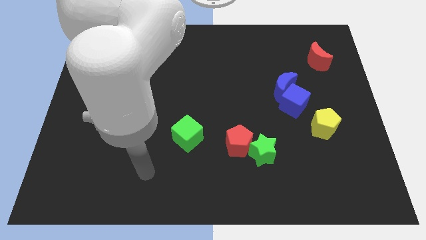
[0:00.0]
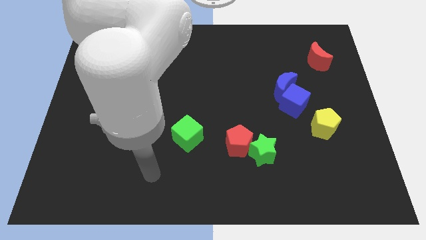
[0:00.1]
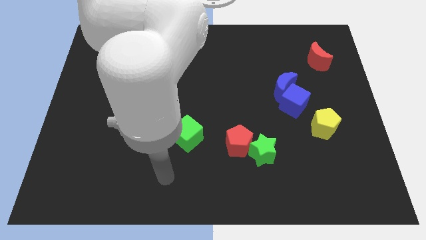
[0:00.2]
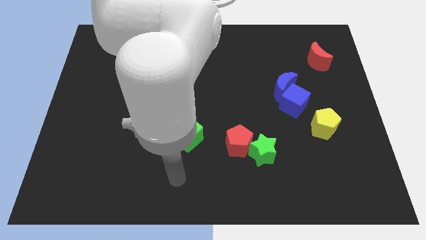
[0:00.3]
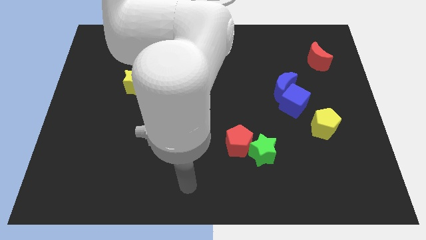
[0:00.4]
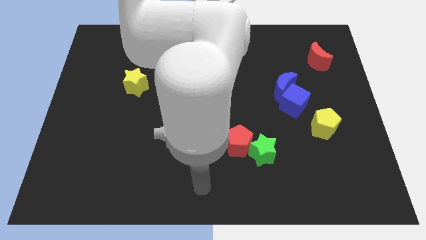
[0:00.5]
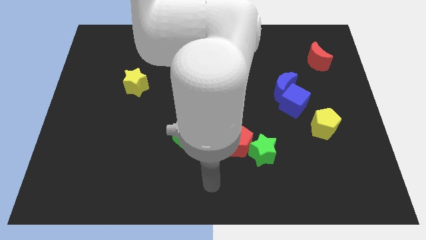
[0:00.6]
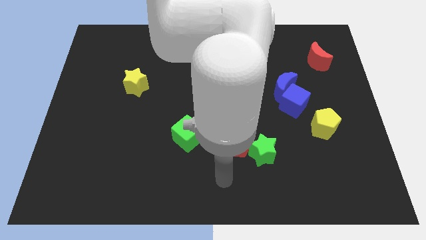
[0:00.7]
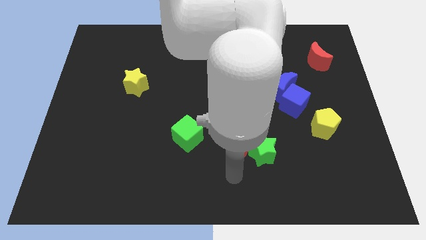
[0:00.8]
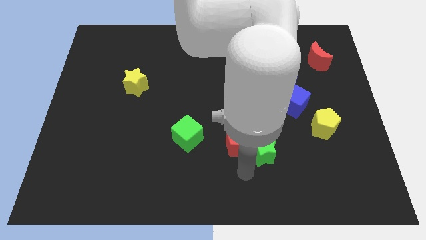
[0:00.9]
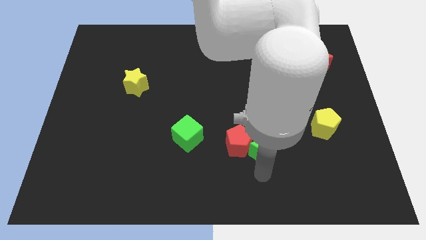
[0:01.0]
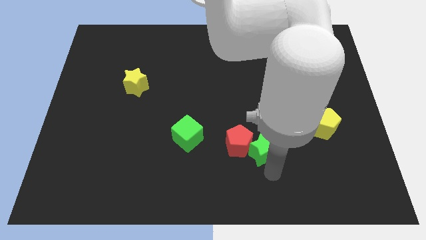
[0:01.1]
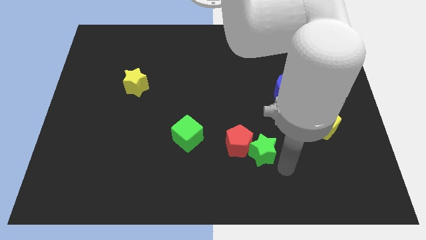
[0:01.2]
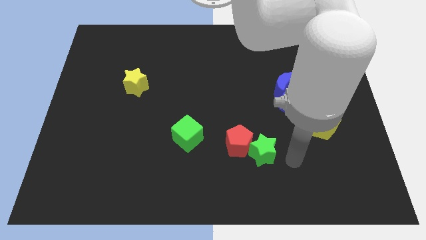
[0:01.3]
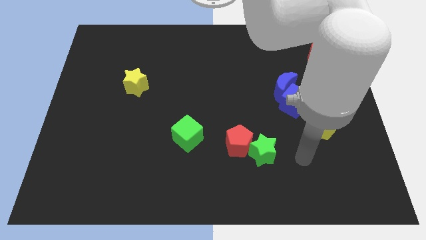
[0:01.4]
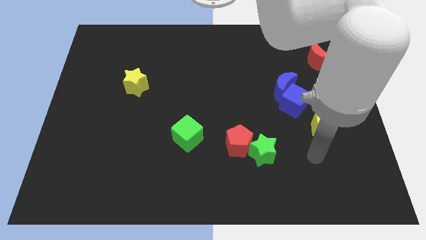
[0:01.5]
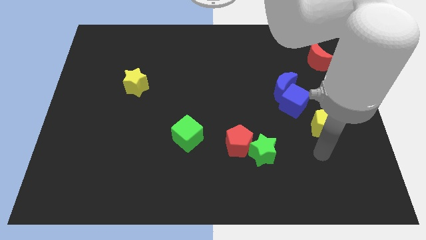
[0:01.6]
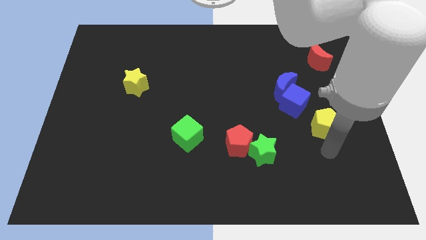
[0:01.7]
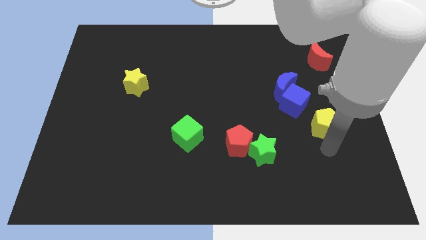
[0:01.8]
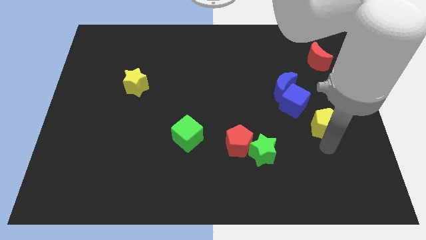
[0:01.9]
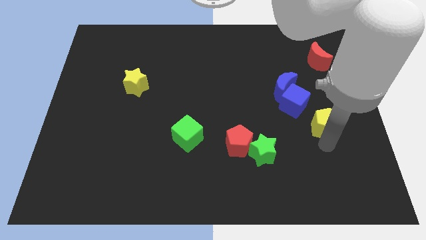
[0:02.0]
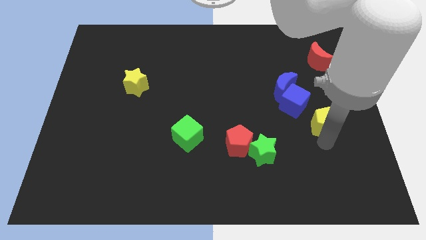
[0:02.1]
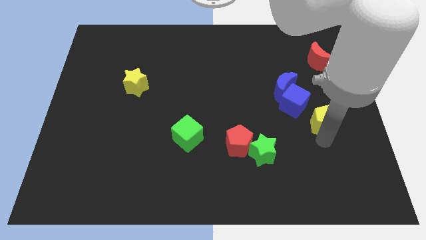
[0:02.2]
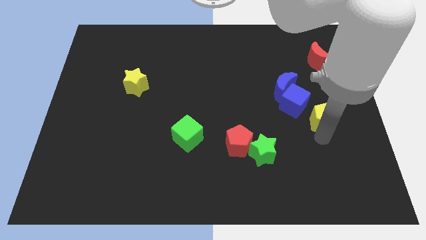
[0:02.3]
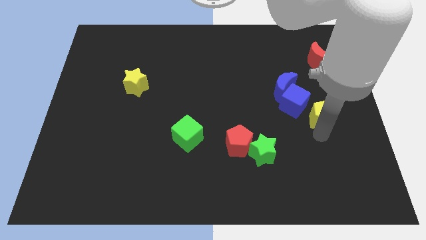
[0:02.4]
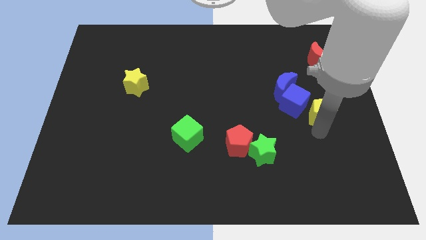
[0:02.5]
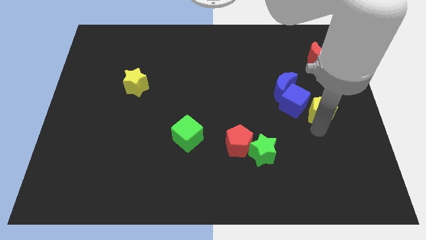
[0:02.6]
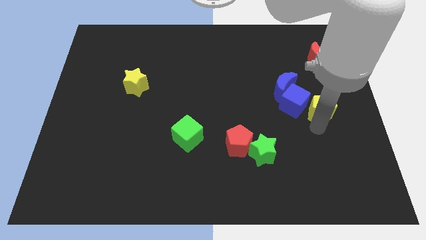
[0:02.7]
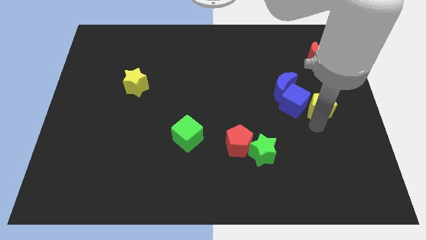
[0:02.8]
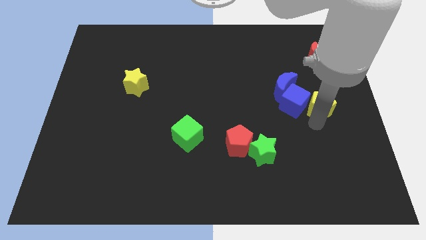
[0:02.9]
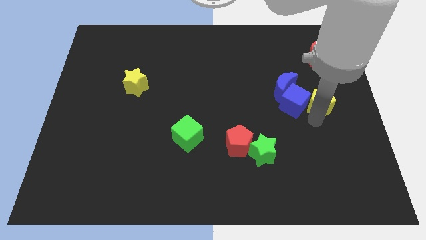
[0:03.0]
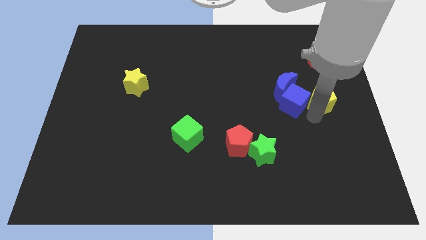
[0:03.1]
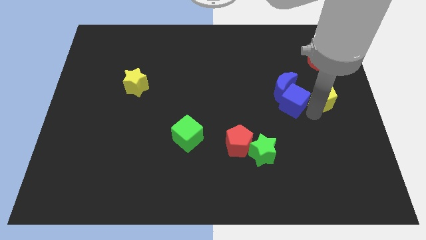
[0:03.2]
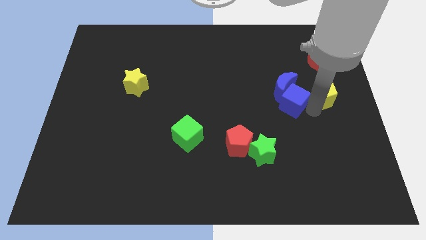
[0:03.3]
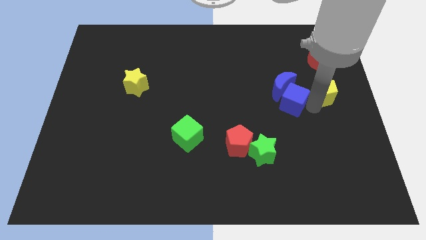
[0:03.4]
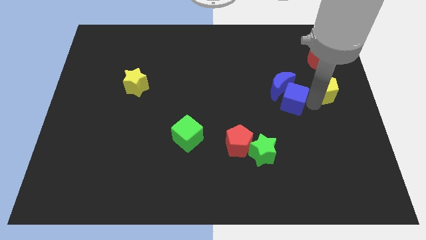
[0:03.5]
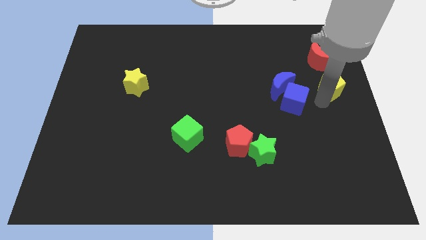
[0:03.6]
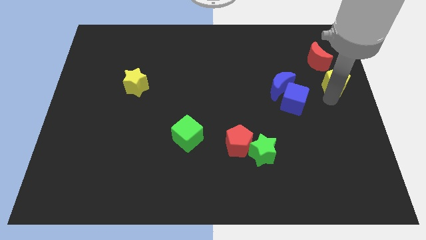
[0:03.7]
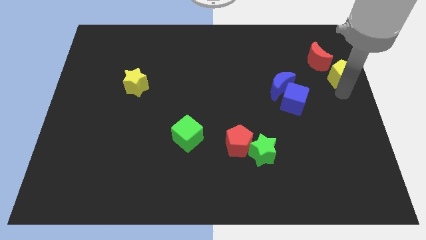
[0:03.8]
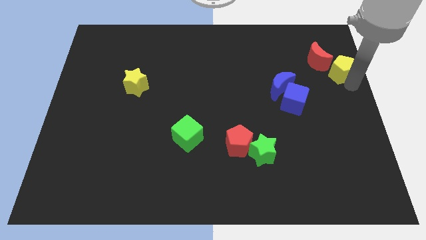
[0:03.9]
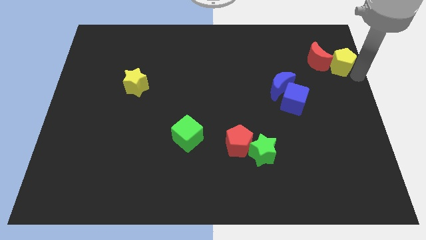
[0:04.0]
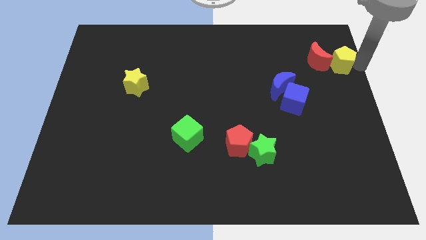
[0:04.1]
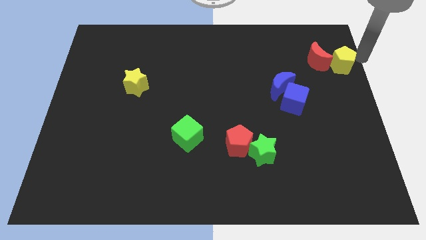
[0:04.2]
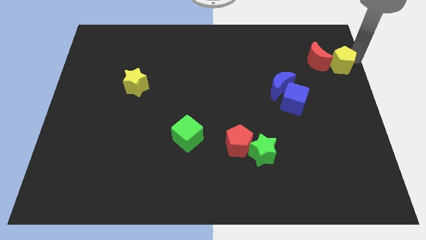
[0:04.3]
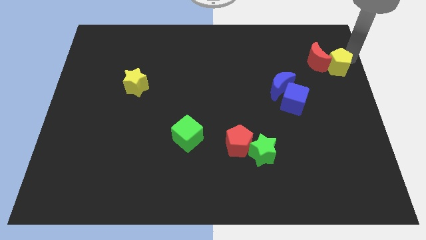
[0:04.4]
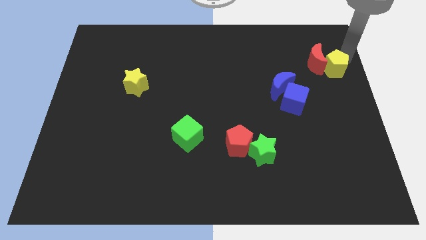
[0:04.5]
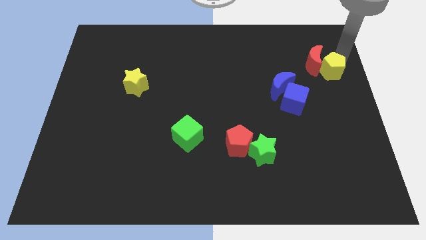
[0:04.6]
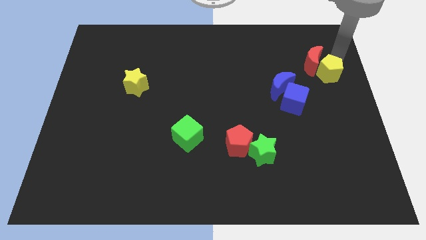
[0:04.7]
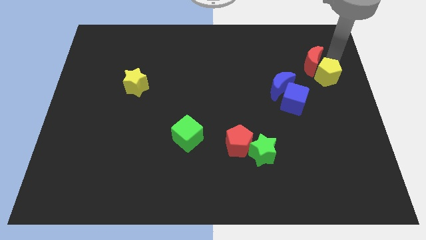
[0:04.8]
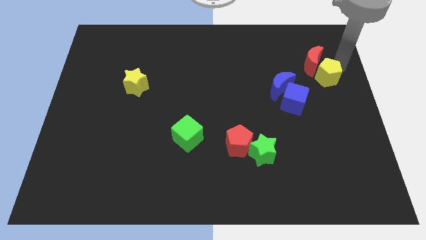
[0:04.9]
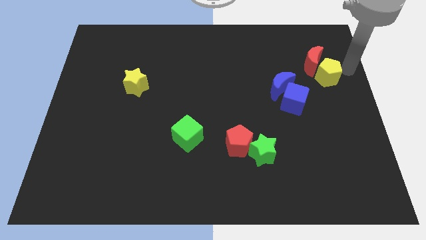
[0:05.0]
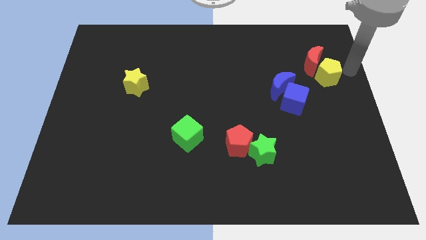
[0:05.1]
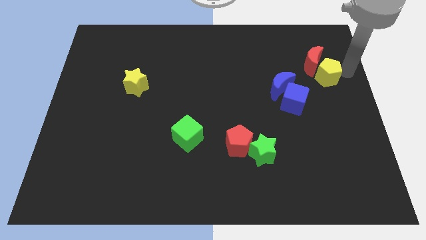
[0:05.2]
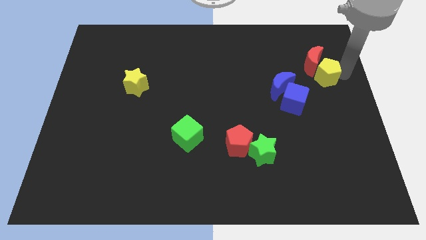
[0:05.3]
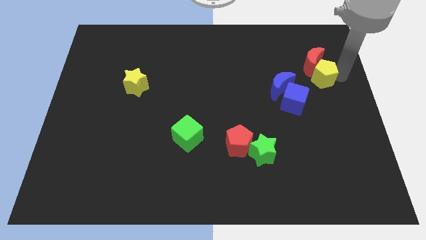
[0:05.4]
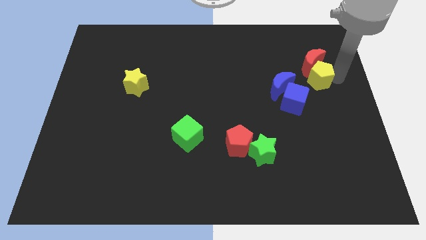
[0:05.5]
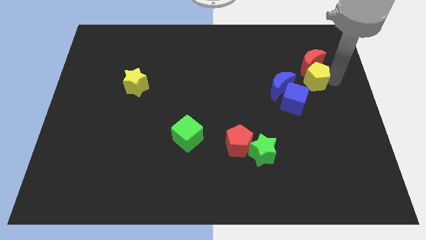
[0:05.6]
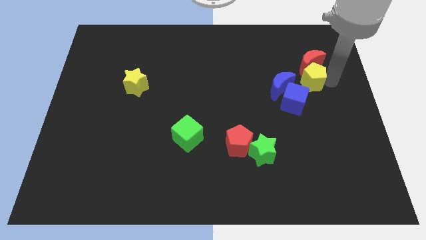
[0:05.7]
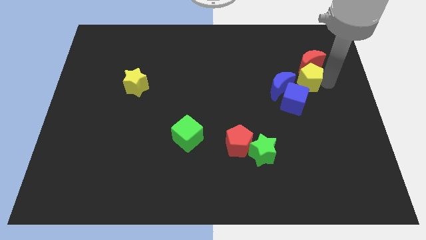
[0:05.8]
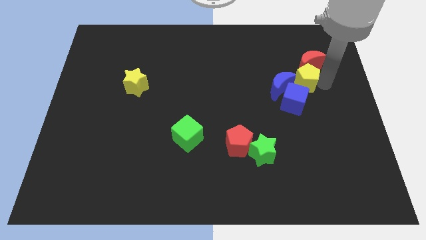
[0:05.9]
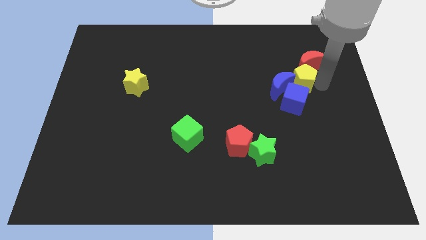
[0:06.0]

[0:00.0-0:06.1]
slide the yellow pentagon to the blue moon

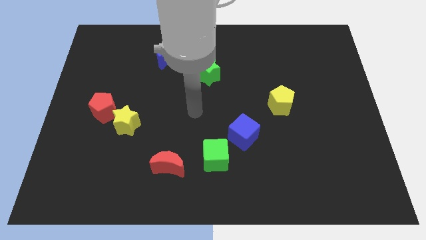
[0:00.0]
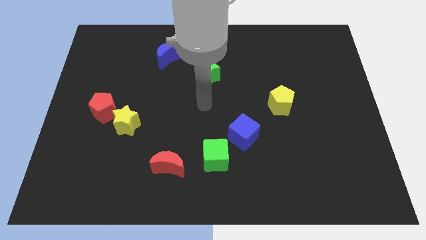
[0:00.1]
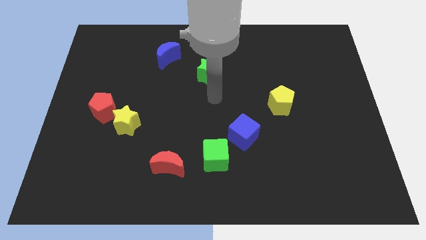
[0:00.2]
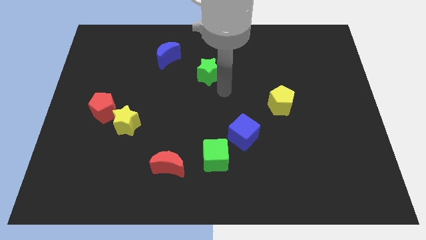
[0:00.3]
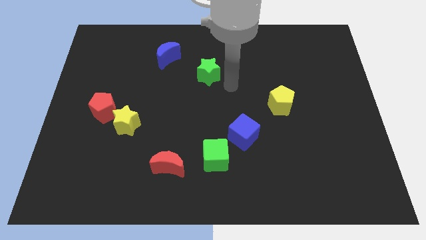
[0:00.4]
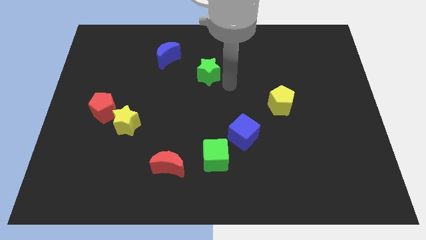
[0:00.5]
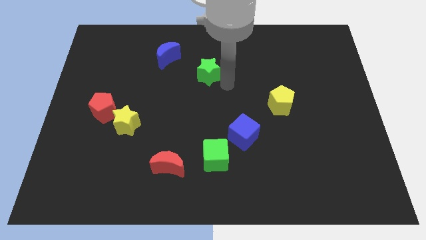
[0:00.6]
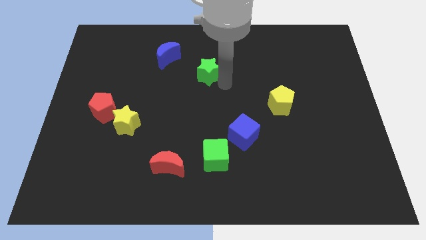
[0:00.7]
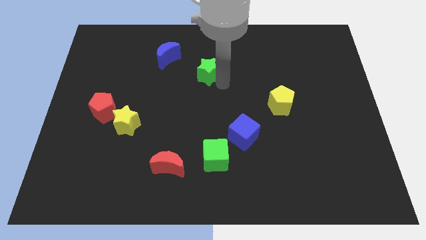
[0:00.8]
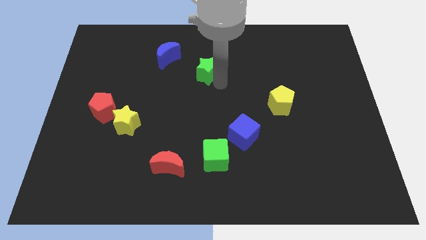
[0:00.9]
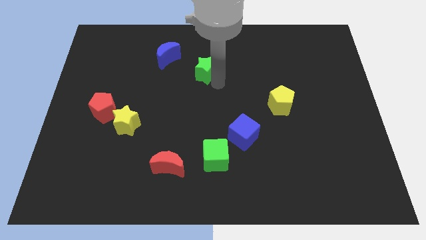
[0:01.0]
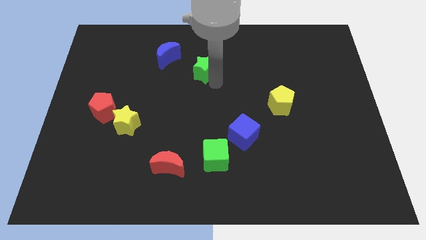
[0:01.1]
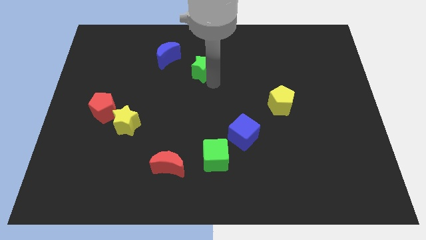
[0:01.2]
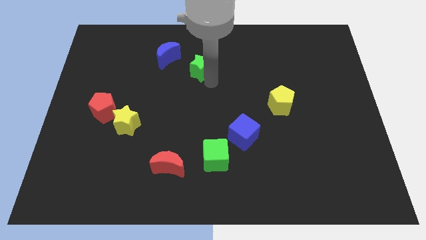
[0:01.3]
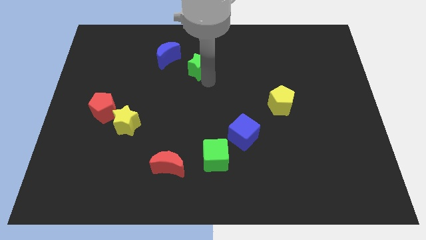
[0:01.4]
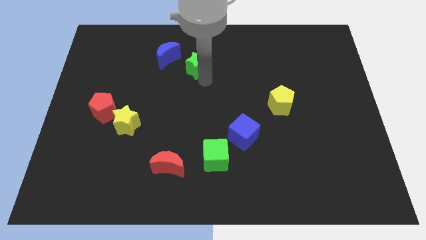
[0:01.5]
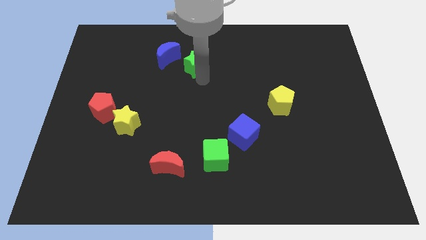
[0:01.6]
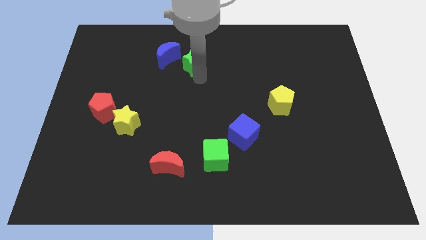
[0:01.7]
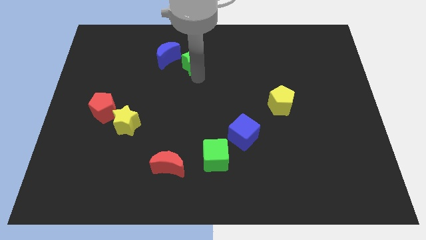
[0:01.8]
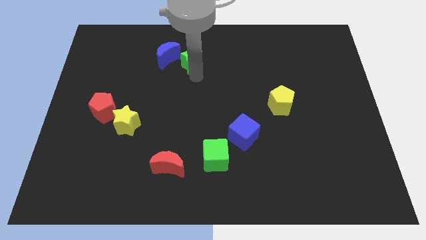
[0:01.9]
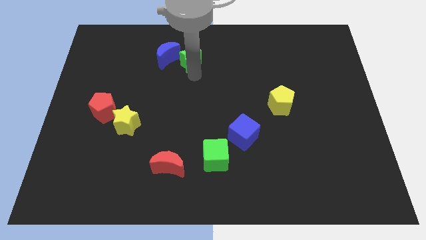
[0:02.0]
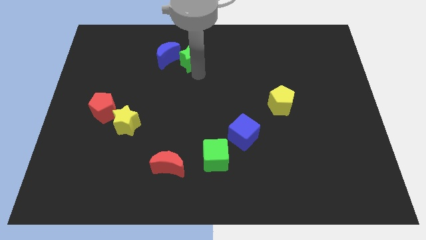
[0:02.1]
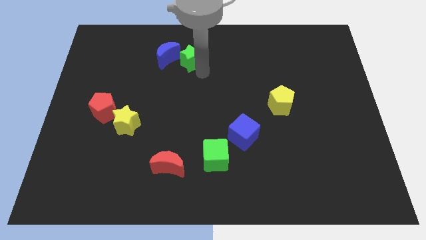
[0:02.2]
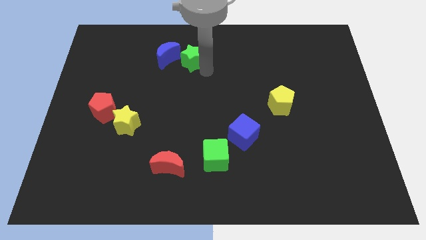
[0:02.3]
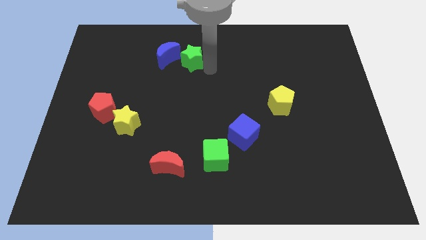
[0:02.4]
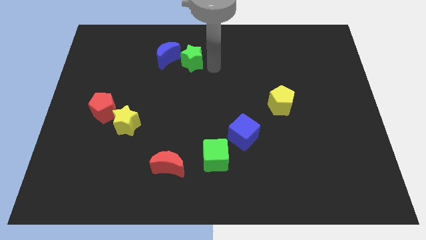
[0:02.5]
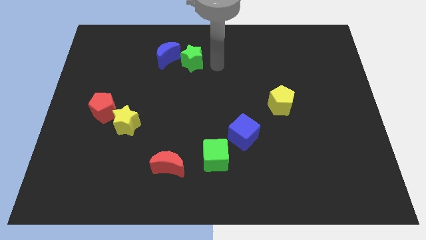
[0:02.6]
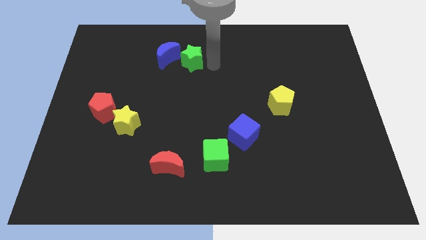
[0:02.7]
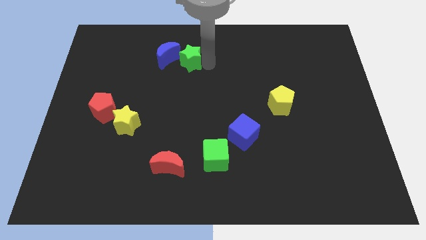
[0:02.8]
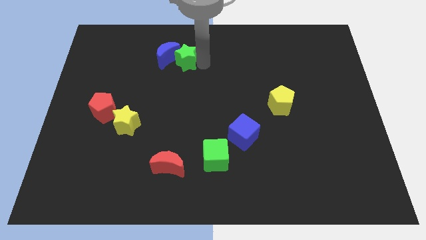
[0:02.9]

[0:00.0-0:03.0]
slide the green star close to the blue moon
